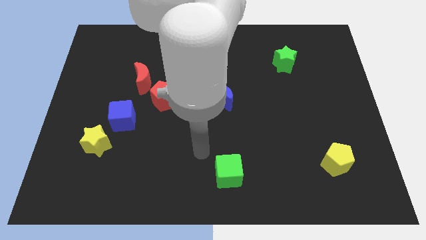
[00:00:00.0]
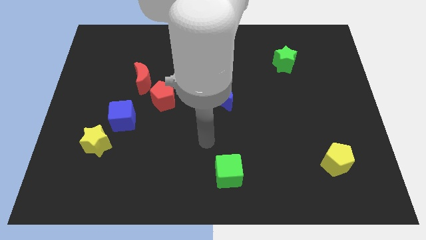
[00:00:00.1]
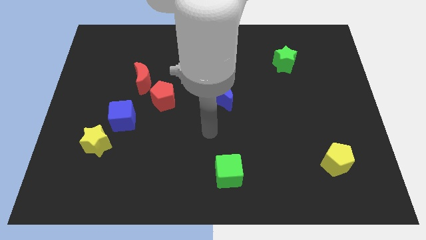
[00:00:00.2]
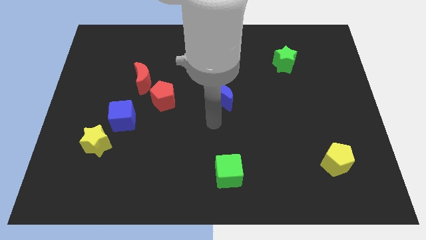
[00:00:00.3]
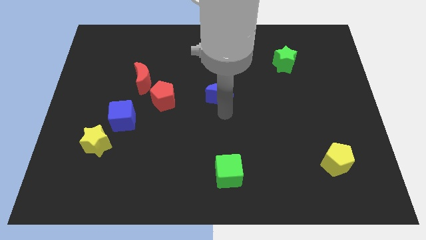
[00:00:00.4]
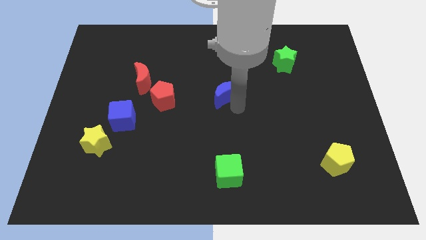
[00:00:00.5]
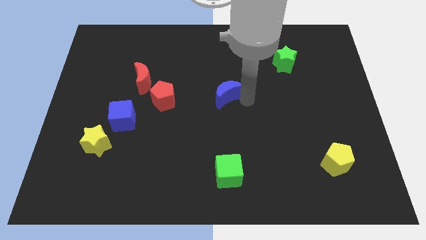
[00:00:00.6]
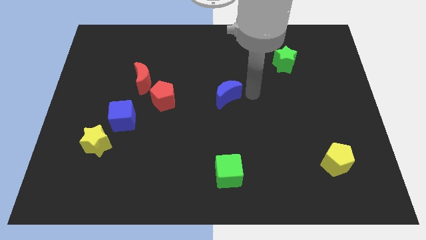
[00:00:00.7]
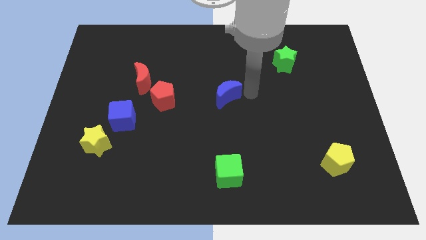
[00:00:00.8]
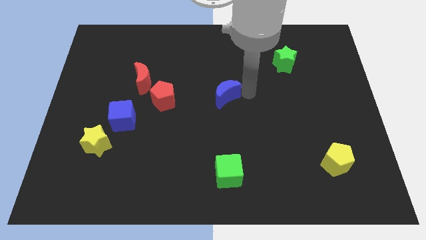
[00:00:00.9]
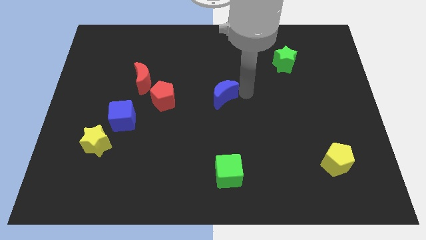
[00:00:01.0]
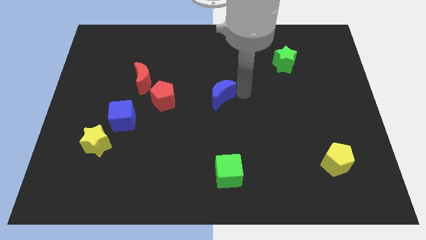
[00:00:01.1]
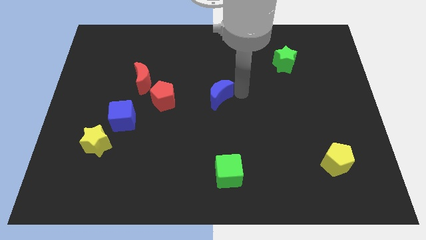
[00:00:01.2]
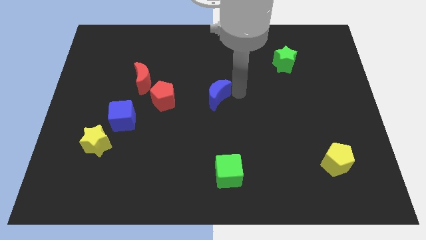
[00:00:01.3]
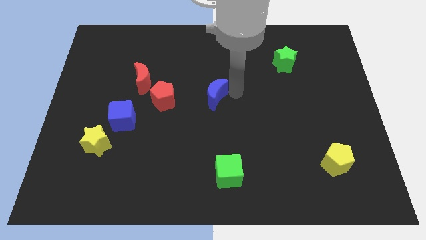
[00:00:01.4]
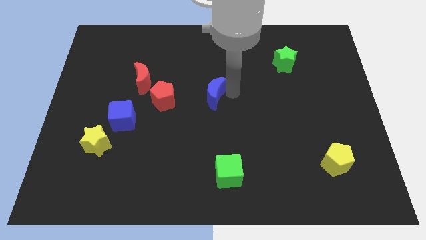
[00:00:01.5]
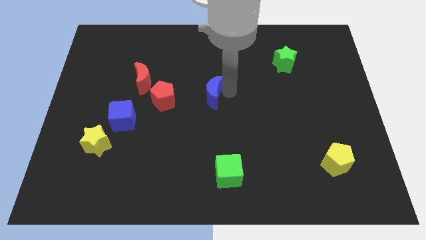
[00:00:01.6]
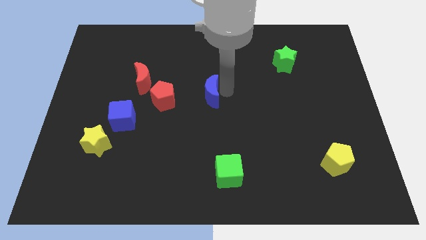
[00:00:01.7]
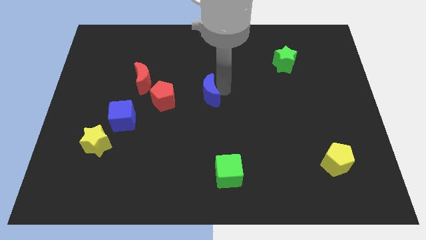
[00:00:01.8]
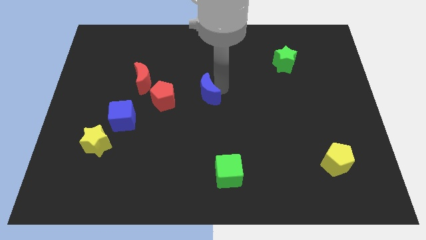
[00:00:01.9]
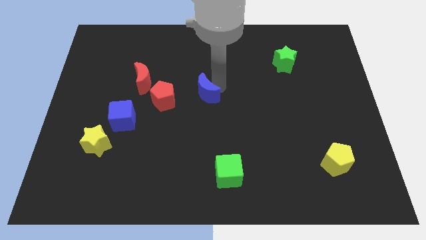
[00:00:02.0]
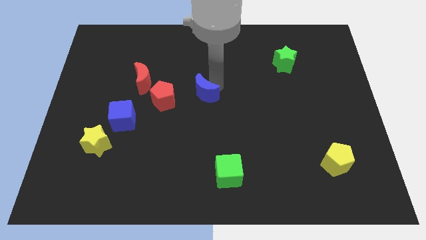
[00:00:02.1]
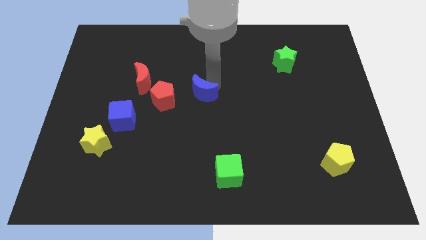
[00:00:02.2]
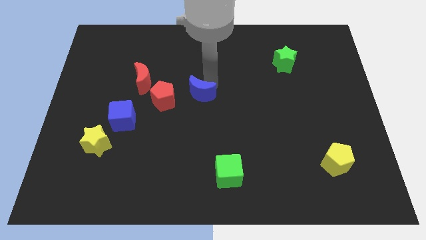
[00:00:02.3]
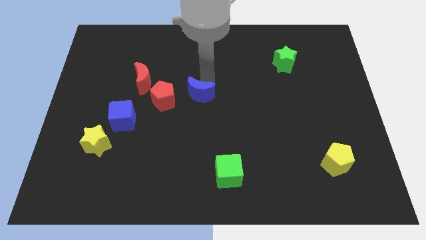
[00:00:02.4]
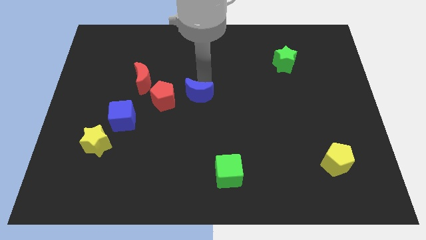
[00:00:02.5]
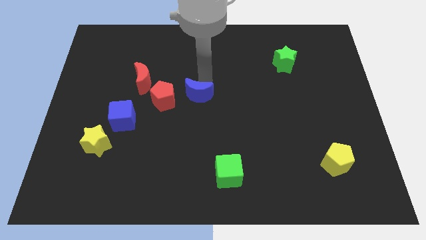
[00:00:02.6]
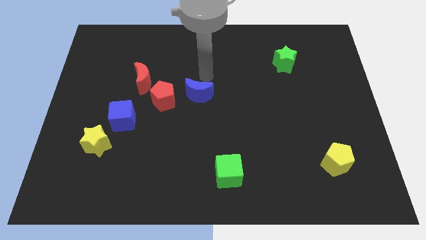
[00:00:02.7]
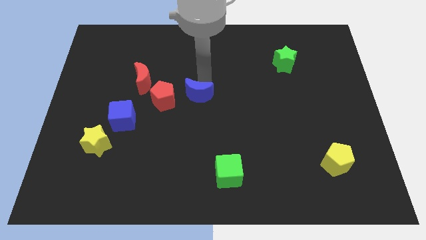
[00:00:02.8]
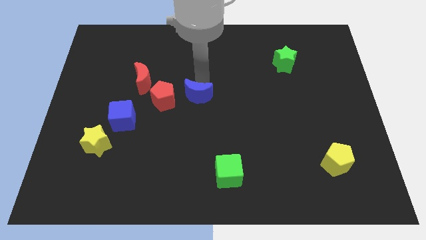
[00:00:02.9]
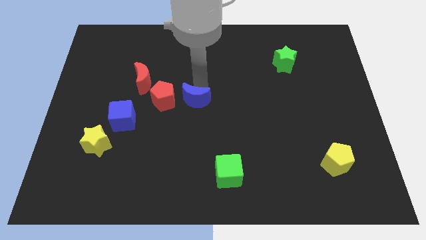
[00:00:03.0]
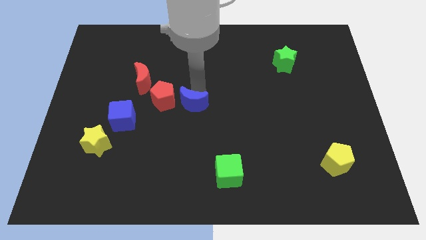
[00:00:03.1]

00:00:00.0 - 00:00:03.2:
move the blue moon a little to the left

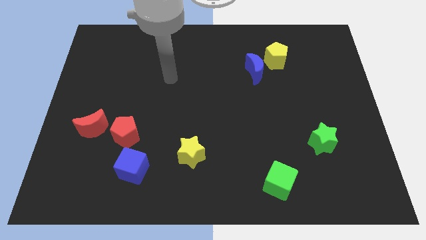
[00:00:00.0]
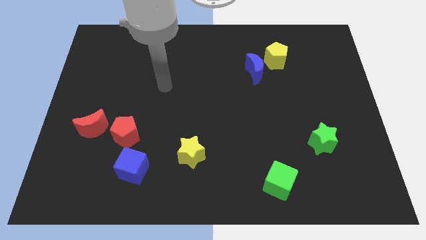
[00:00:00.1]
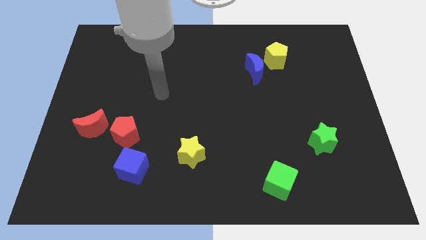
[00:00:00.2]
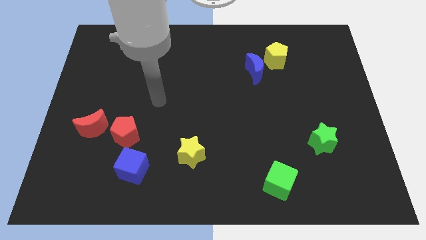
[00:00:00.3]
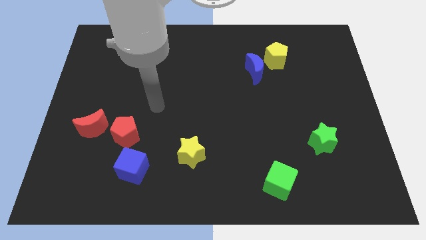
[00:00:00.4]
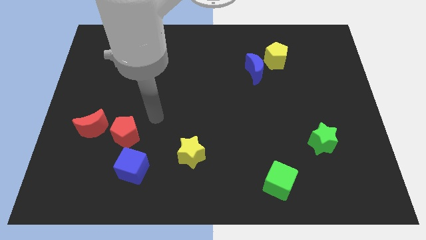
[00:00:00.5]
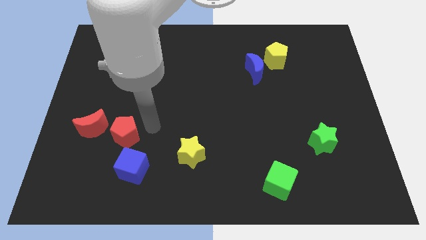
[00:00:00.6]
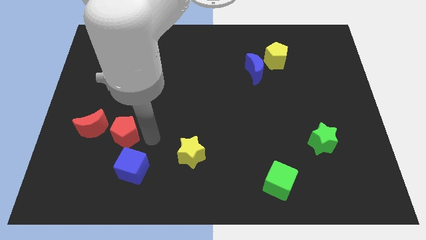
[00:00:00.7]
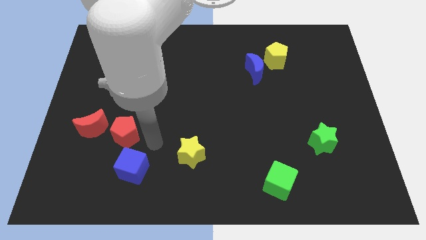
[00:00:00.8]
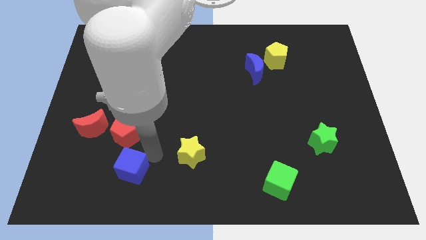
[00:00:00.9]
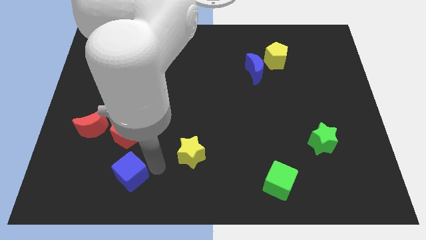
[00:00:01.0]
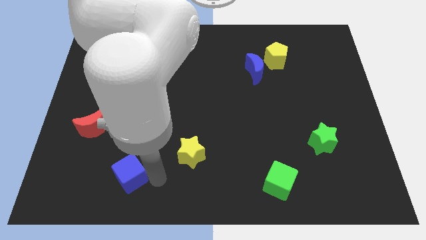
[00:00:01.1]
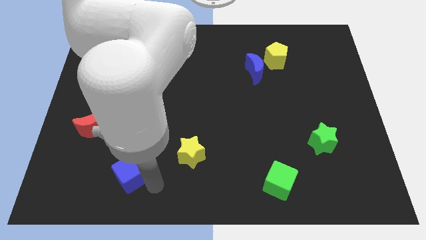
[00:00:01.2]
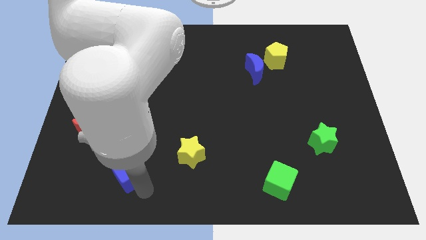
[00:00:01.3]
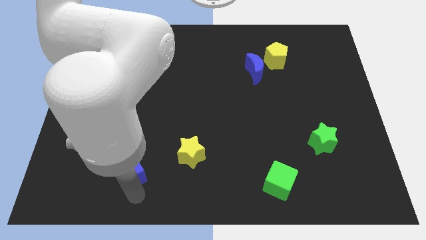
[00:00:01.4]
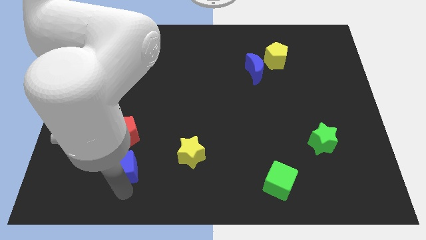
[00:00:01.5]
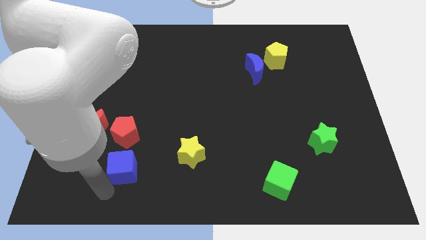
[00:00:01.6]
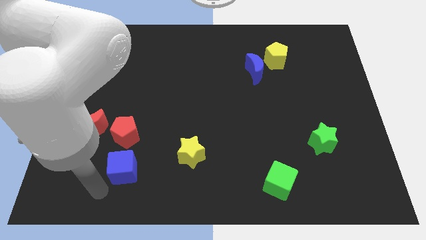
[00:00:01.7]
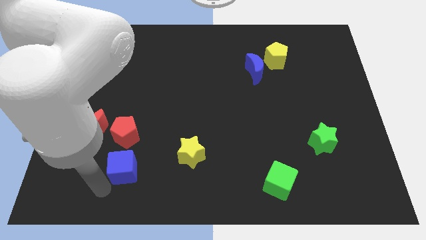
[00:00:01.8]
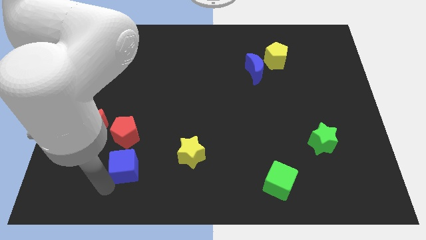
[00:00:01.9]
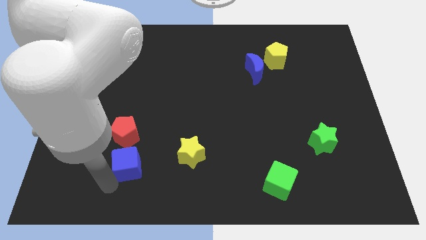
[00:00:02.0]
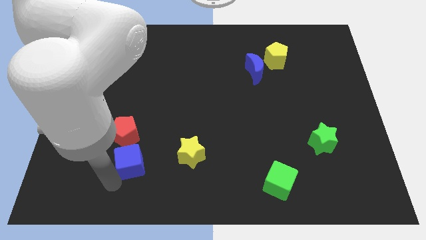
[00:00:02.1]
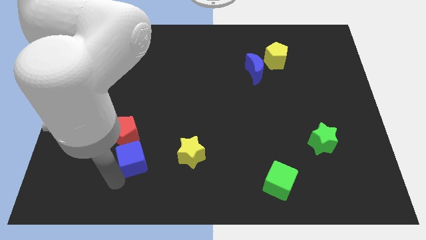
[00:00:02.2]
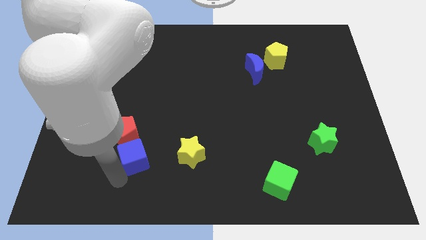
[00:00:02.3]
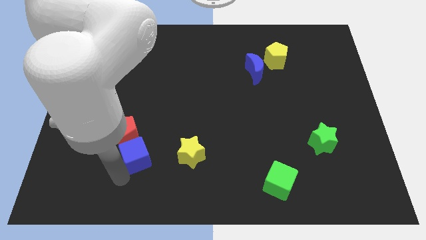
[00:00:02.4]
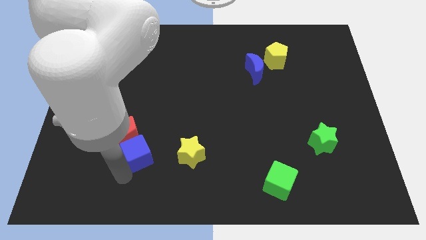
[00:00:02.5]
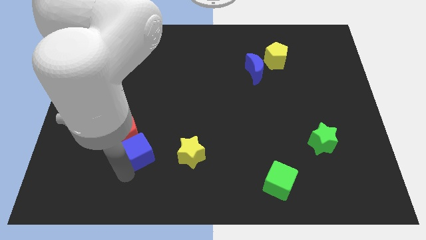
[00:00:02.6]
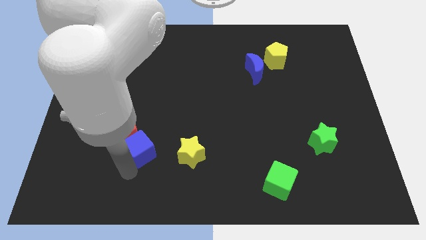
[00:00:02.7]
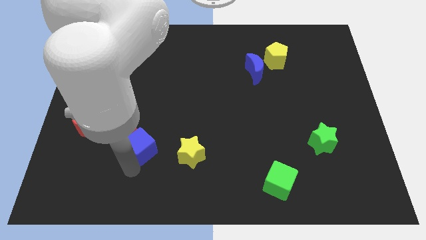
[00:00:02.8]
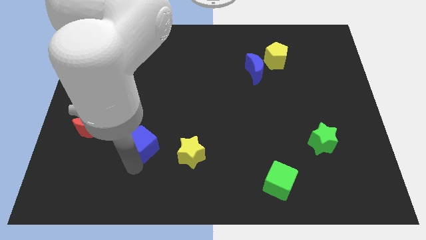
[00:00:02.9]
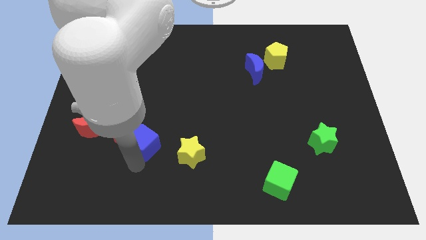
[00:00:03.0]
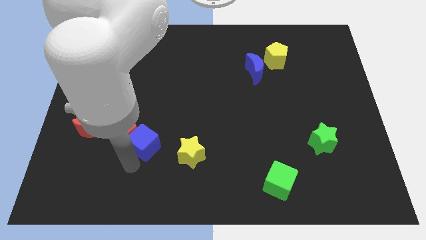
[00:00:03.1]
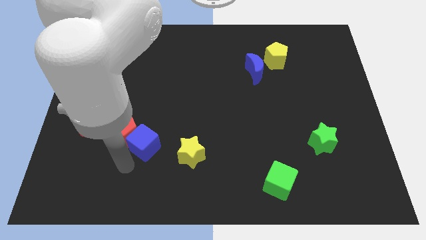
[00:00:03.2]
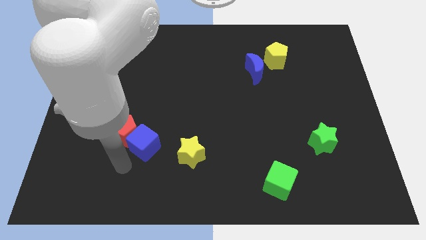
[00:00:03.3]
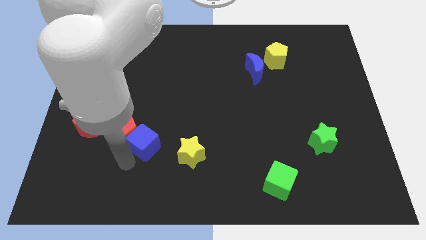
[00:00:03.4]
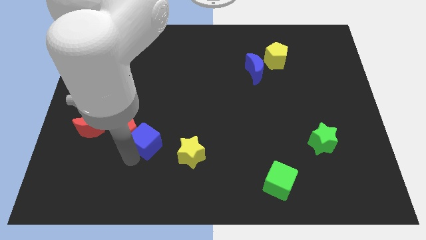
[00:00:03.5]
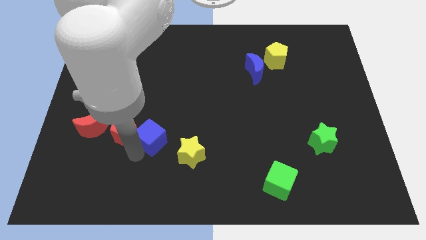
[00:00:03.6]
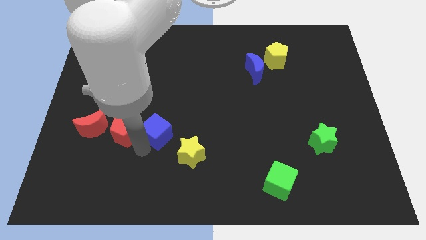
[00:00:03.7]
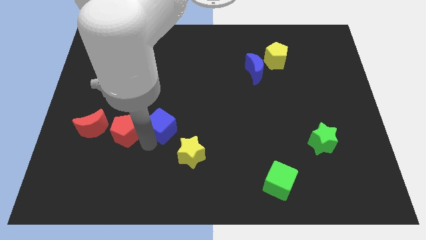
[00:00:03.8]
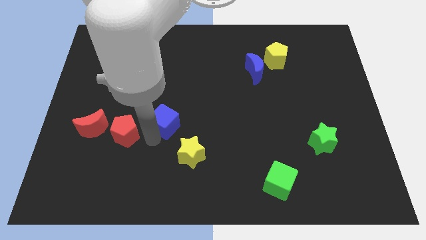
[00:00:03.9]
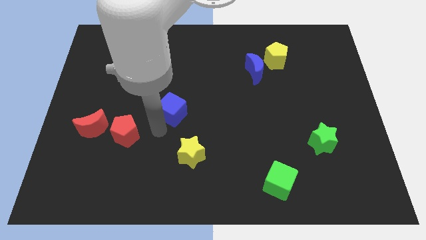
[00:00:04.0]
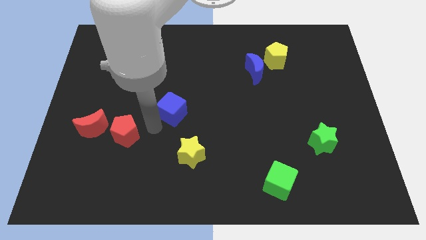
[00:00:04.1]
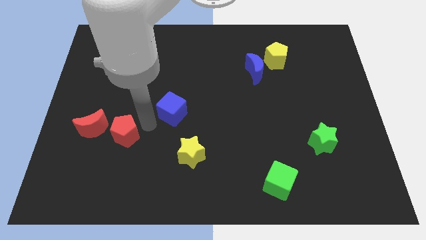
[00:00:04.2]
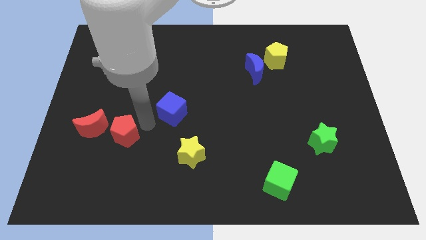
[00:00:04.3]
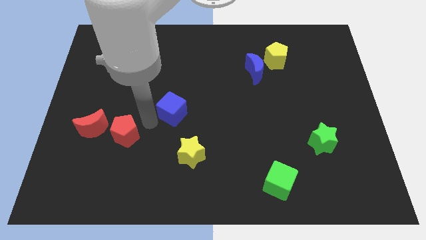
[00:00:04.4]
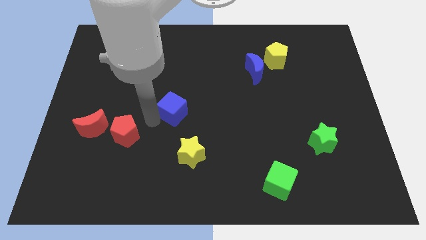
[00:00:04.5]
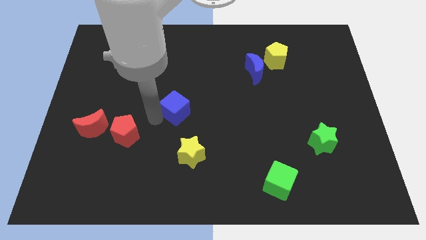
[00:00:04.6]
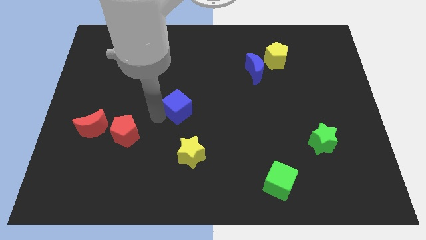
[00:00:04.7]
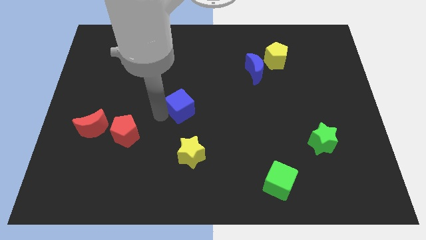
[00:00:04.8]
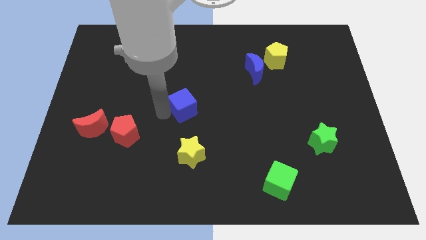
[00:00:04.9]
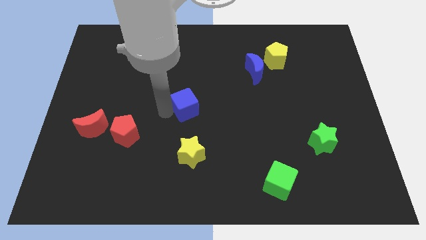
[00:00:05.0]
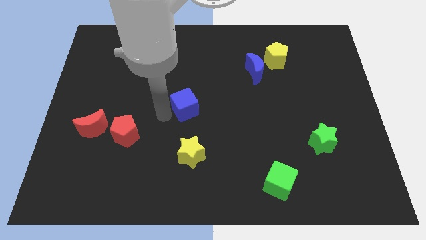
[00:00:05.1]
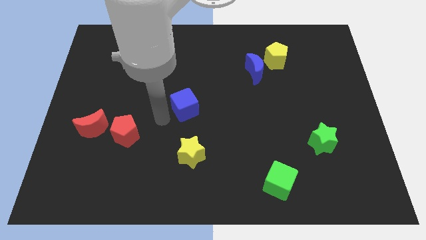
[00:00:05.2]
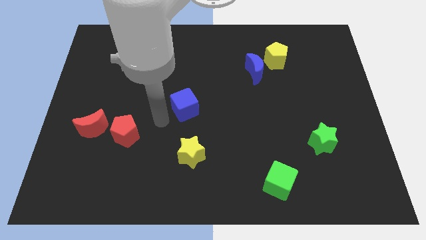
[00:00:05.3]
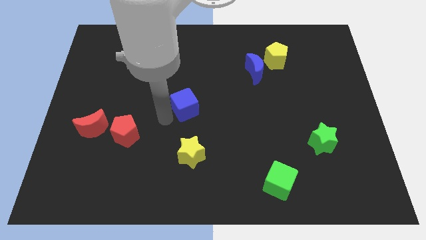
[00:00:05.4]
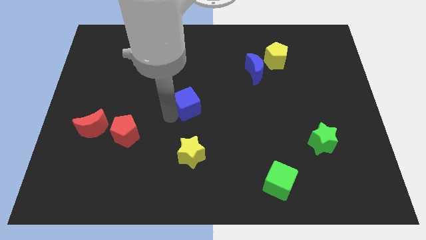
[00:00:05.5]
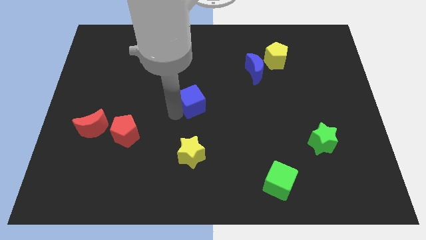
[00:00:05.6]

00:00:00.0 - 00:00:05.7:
move the blue cube up and then to the right
